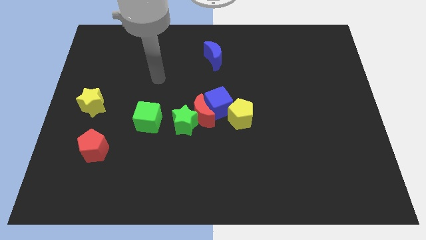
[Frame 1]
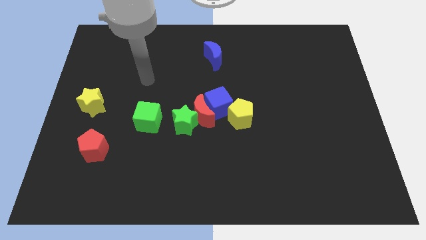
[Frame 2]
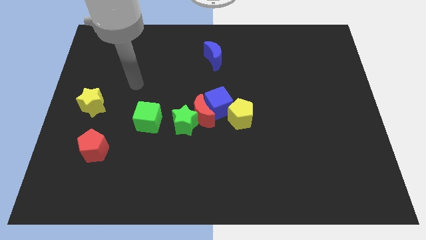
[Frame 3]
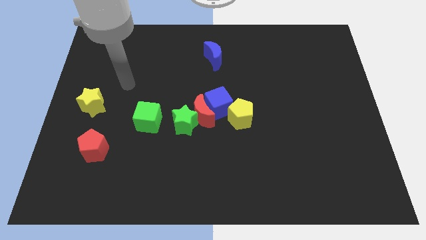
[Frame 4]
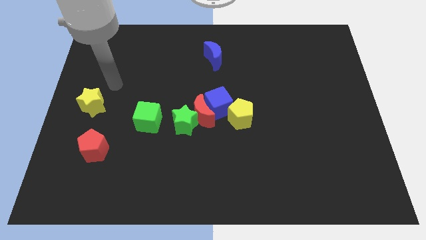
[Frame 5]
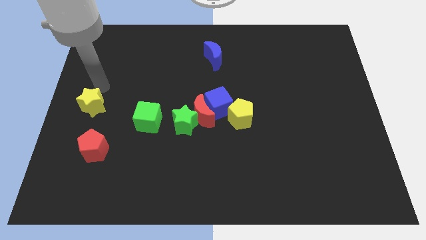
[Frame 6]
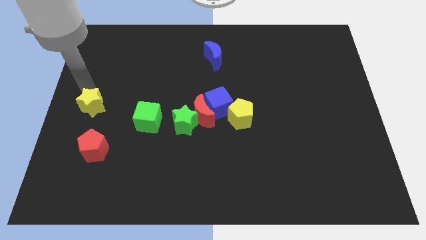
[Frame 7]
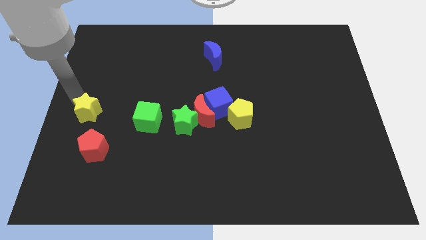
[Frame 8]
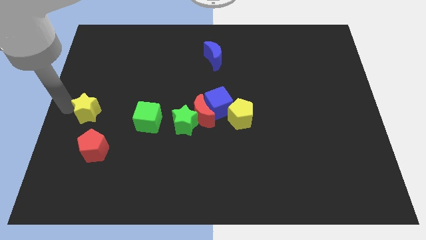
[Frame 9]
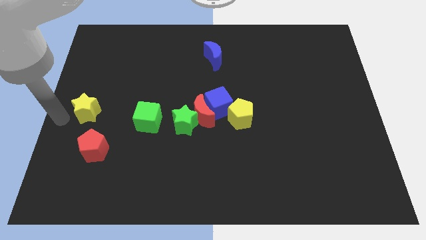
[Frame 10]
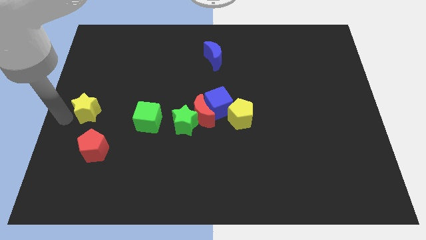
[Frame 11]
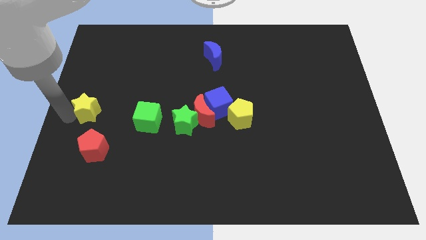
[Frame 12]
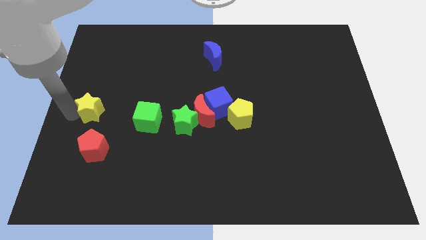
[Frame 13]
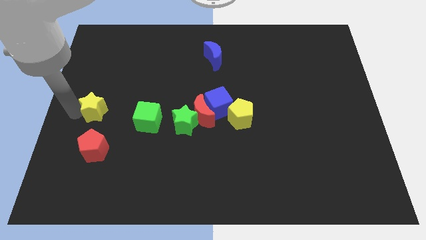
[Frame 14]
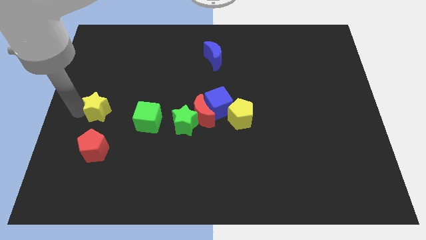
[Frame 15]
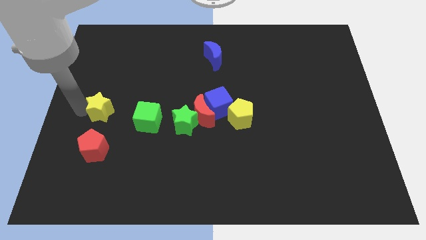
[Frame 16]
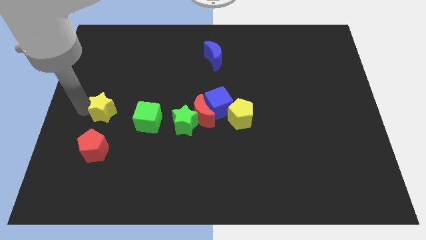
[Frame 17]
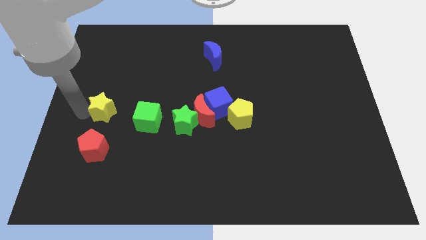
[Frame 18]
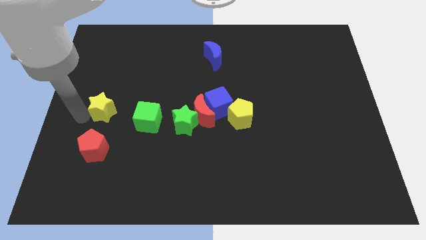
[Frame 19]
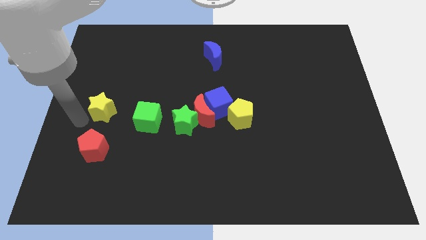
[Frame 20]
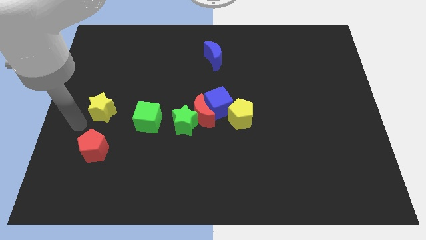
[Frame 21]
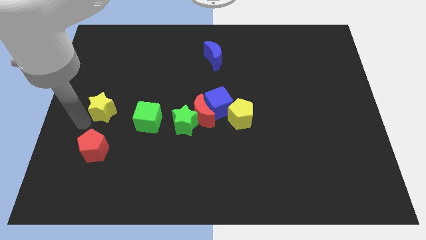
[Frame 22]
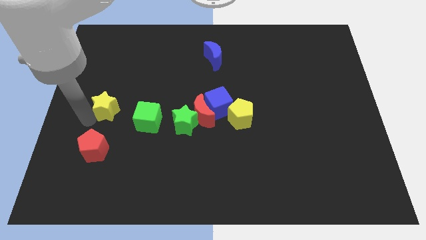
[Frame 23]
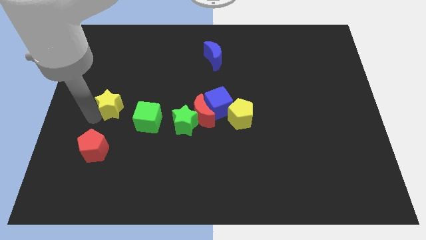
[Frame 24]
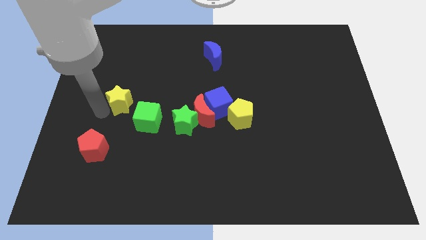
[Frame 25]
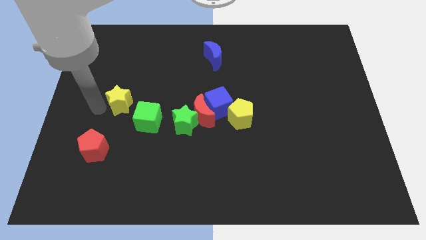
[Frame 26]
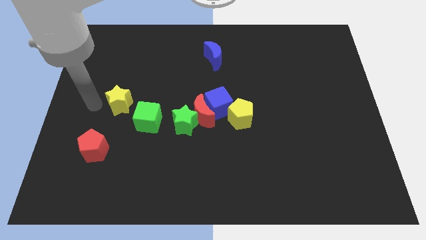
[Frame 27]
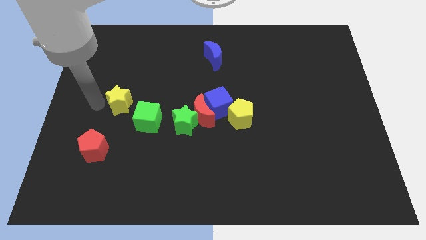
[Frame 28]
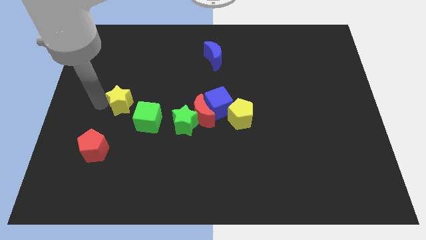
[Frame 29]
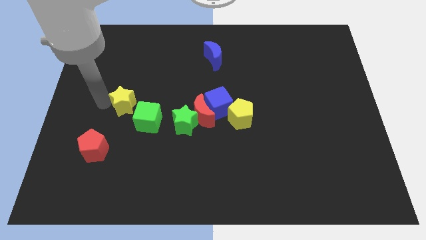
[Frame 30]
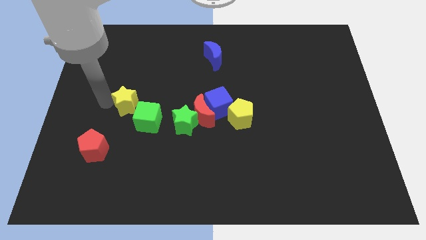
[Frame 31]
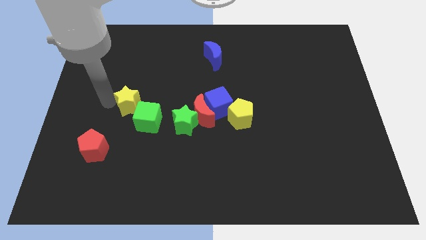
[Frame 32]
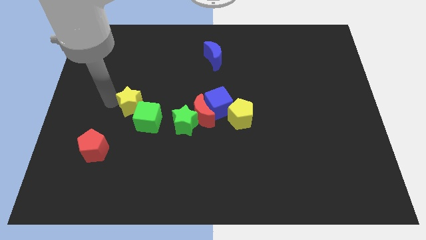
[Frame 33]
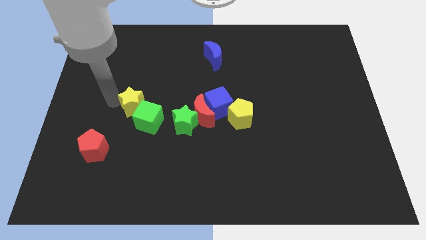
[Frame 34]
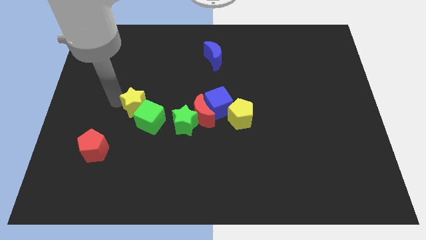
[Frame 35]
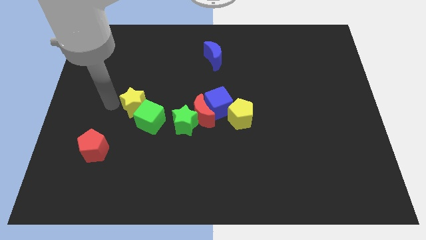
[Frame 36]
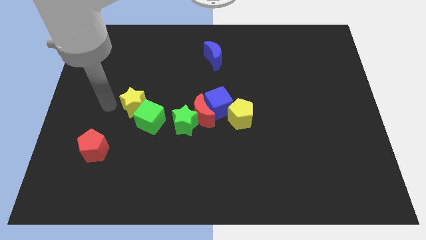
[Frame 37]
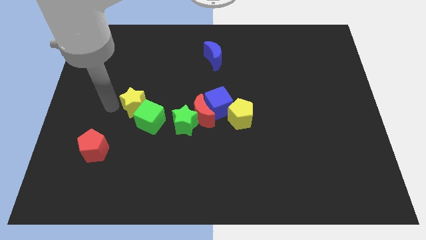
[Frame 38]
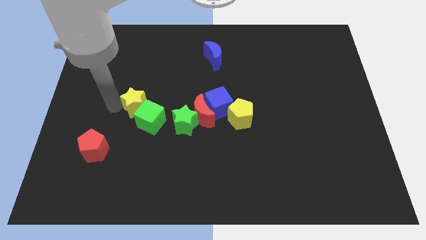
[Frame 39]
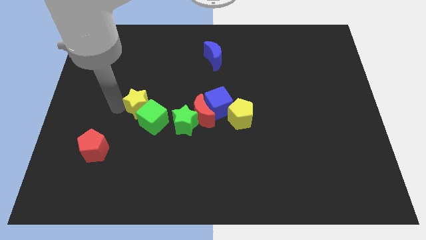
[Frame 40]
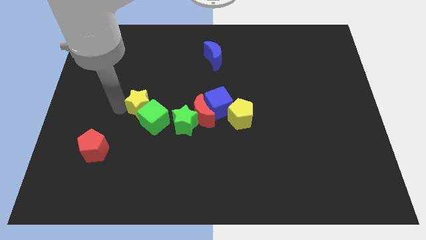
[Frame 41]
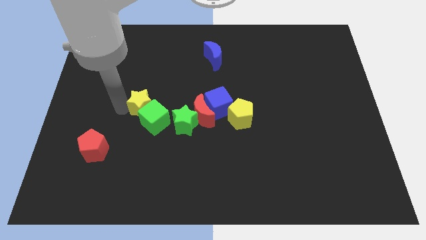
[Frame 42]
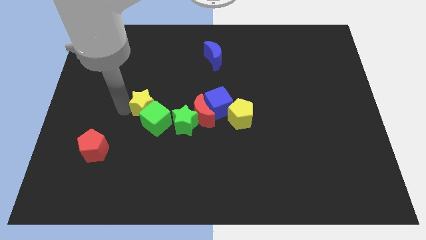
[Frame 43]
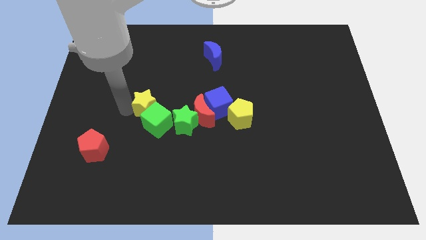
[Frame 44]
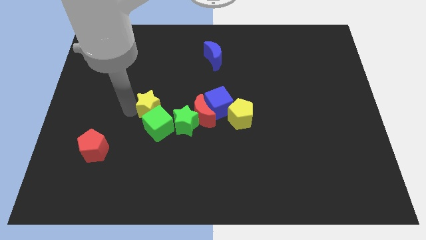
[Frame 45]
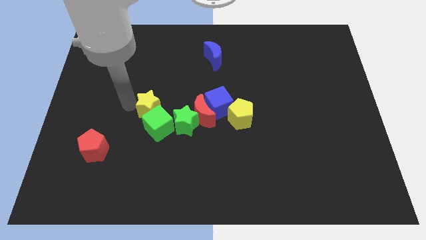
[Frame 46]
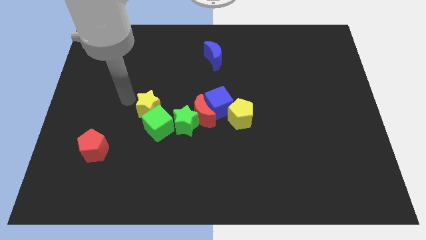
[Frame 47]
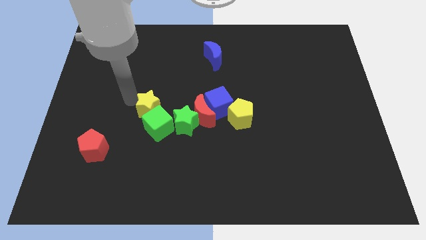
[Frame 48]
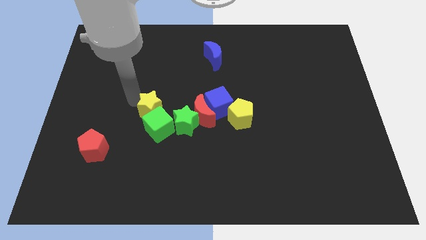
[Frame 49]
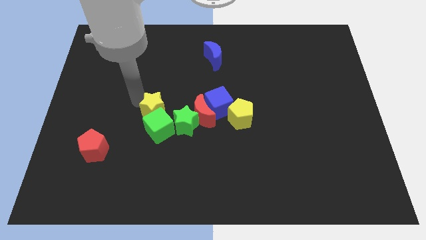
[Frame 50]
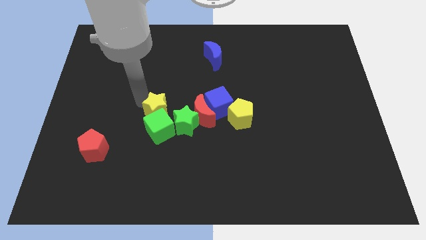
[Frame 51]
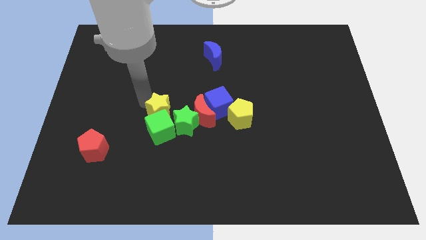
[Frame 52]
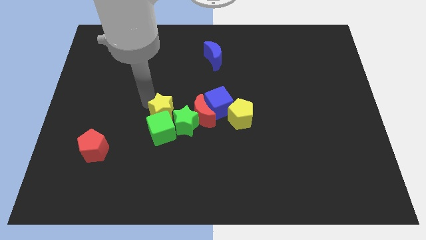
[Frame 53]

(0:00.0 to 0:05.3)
slide the yellow star towards the green star

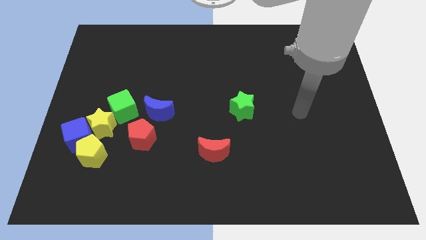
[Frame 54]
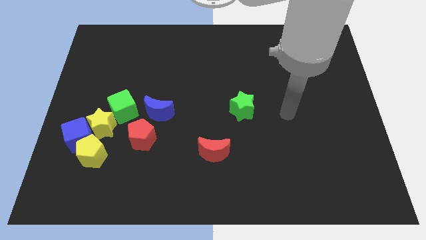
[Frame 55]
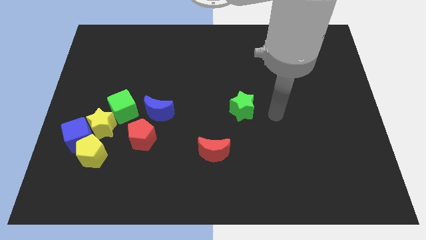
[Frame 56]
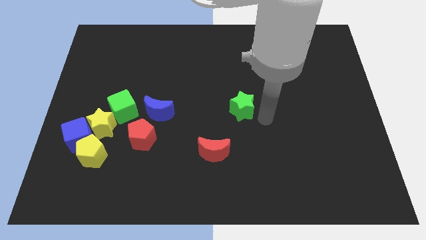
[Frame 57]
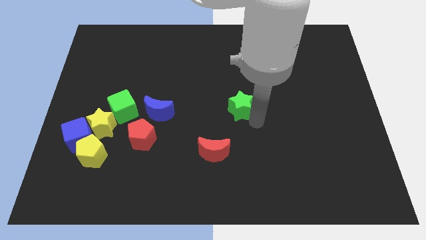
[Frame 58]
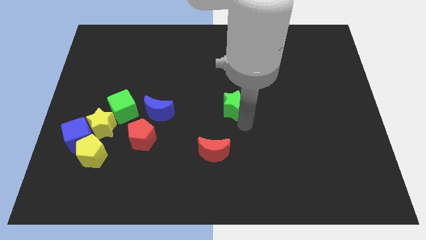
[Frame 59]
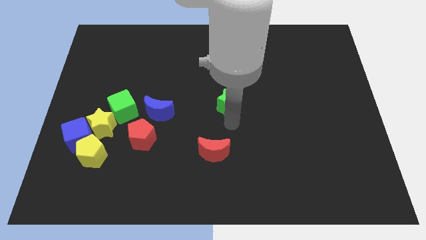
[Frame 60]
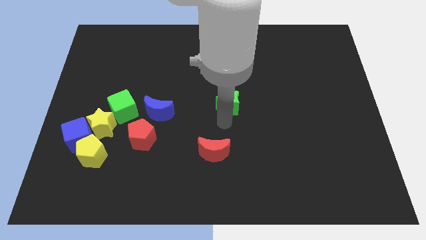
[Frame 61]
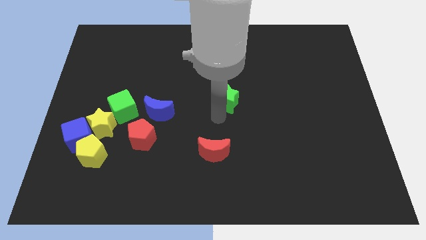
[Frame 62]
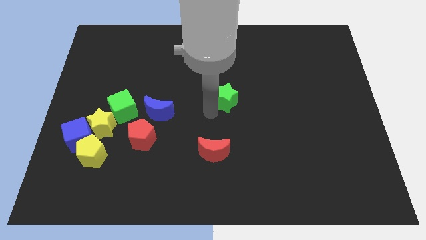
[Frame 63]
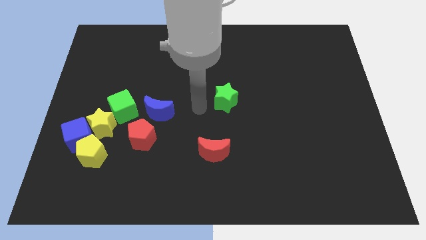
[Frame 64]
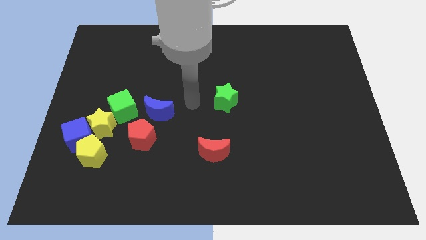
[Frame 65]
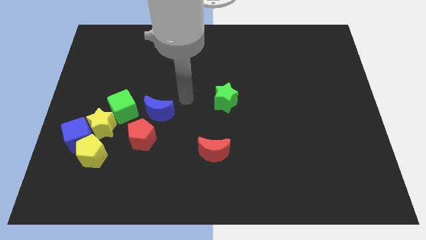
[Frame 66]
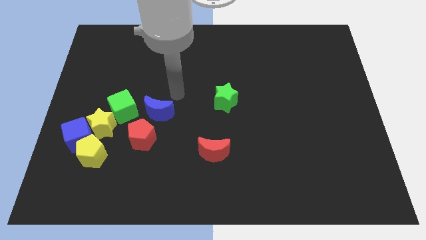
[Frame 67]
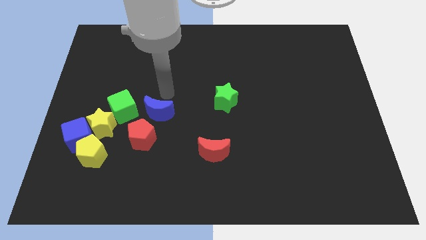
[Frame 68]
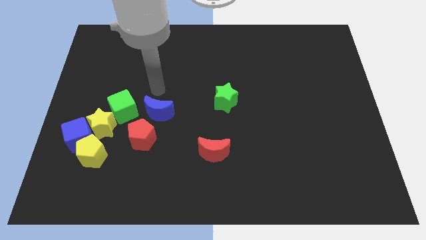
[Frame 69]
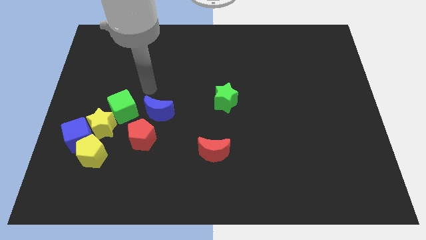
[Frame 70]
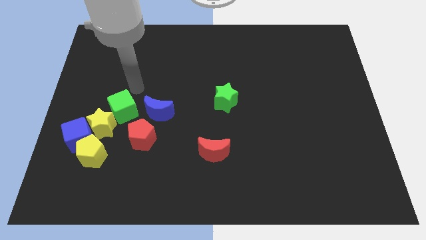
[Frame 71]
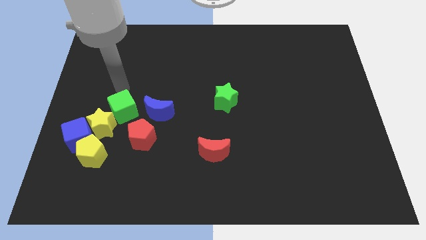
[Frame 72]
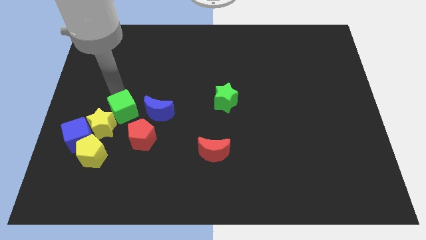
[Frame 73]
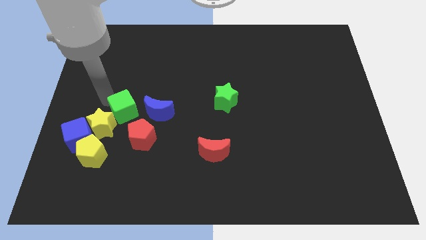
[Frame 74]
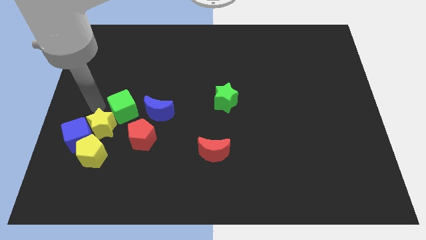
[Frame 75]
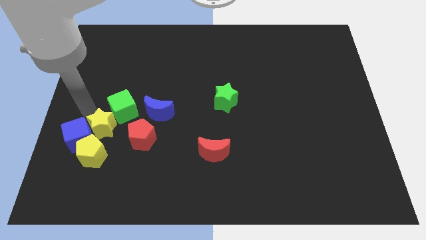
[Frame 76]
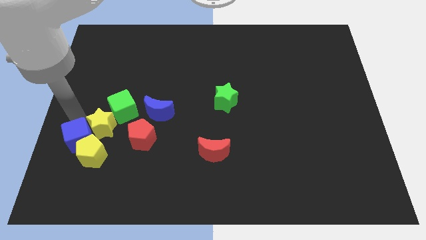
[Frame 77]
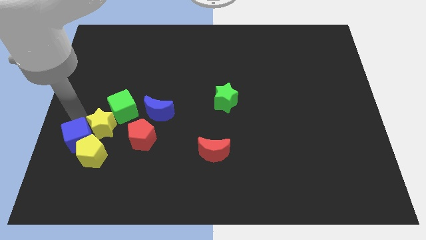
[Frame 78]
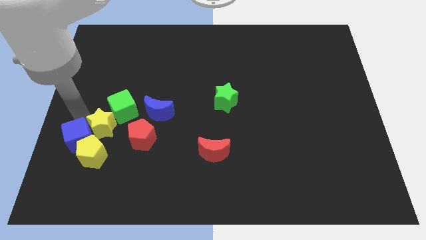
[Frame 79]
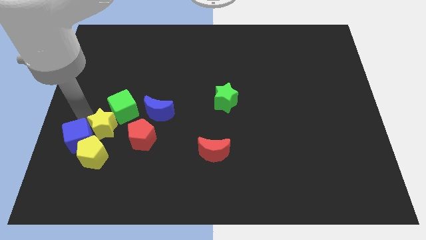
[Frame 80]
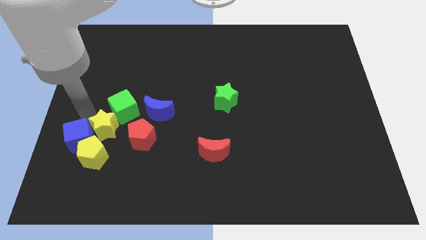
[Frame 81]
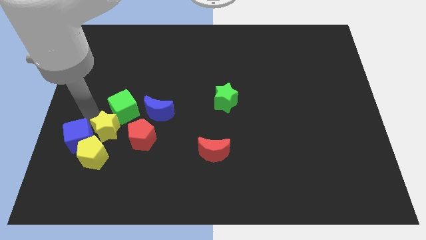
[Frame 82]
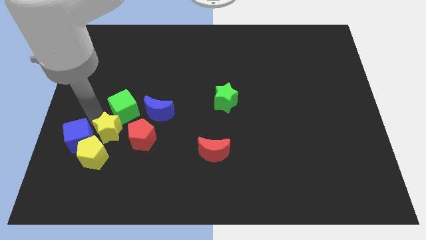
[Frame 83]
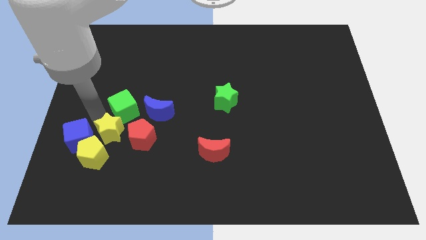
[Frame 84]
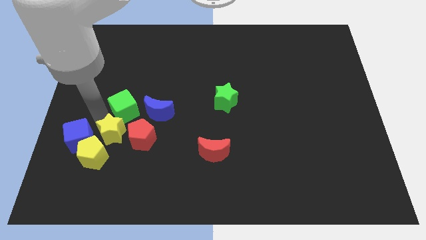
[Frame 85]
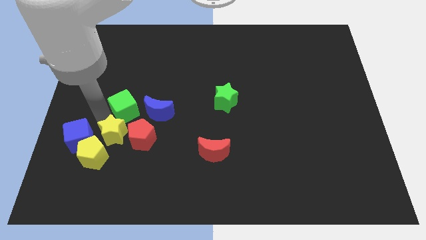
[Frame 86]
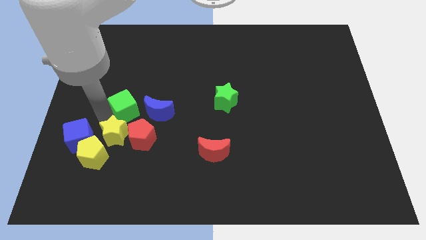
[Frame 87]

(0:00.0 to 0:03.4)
move the yellow star close to the red pentagon
